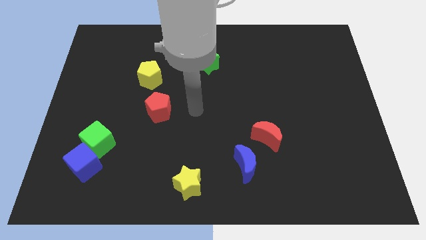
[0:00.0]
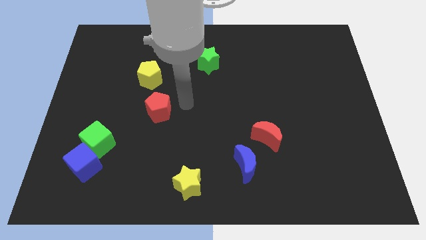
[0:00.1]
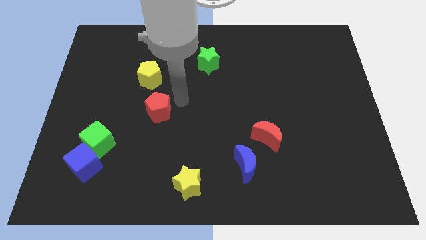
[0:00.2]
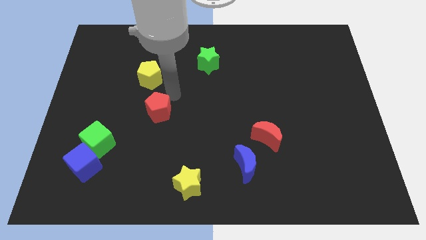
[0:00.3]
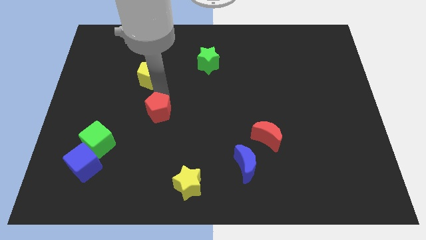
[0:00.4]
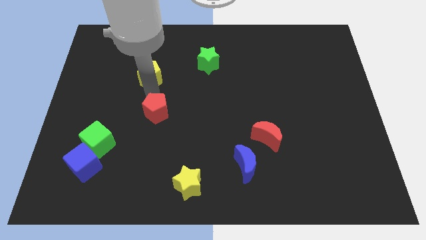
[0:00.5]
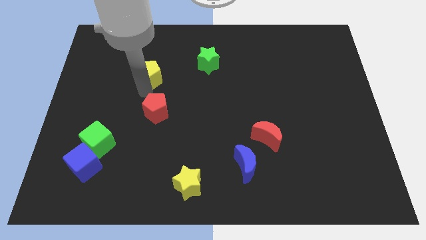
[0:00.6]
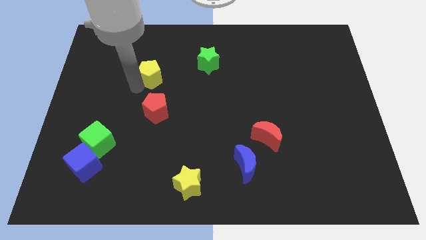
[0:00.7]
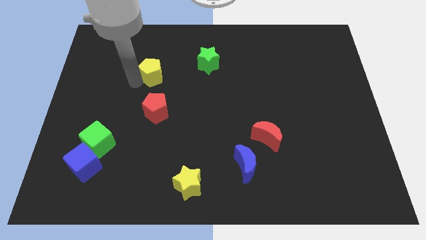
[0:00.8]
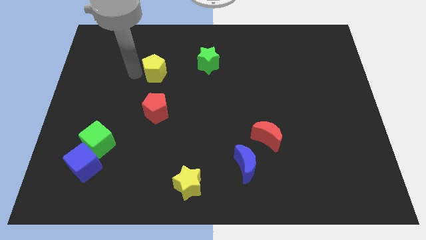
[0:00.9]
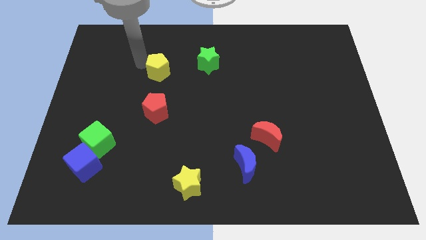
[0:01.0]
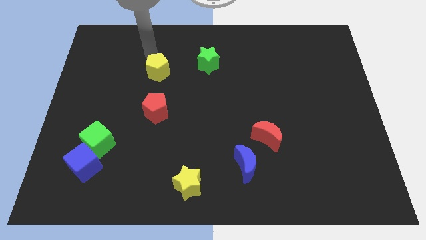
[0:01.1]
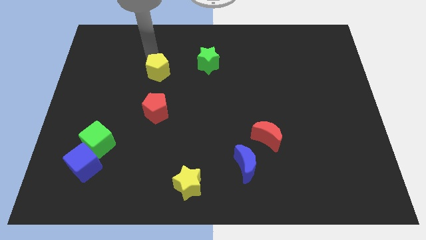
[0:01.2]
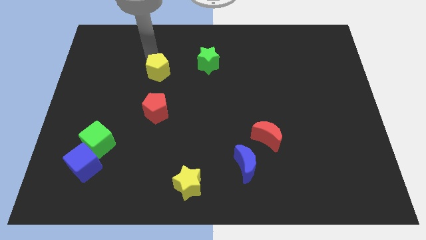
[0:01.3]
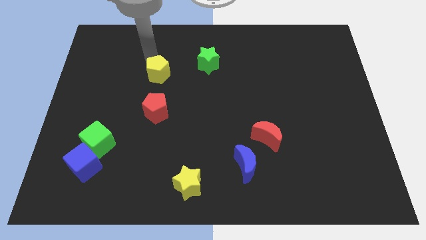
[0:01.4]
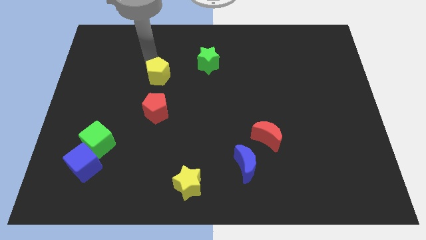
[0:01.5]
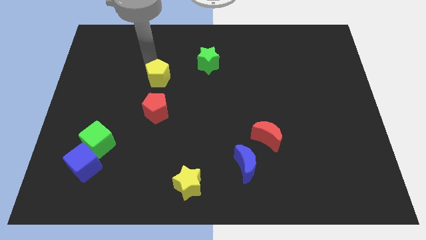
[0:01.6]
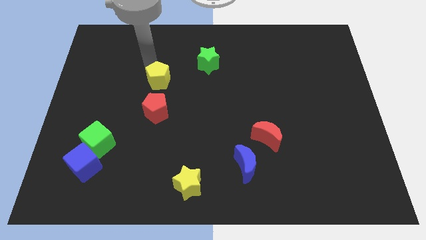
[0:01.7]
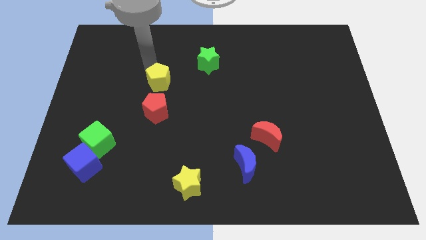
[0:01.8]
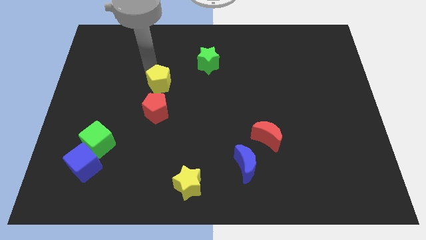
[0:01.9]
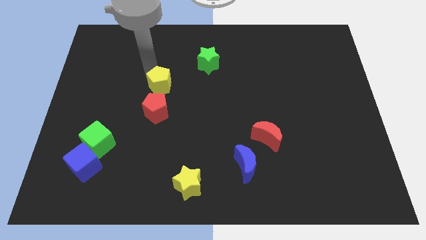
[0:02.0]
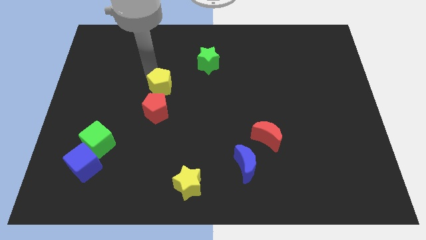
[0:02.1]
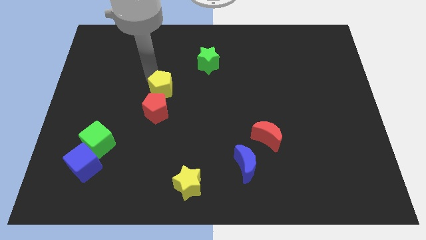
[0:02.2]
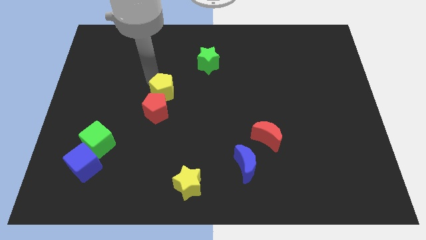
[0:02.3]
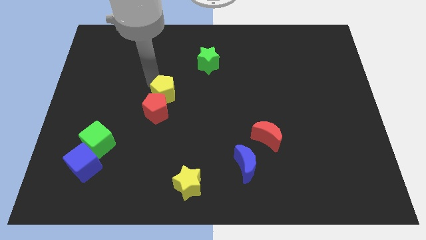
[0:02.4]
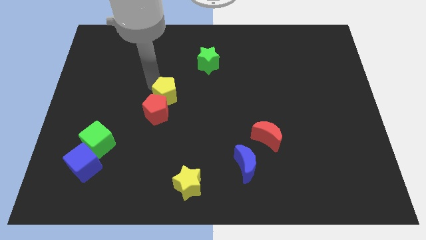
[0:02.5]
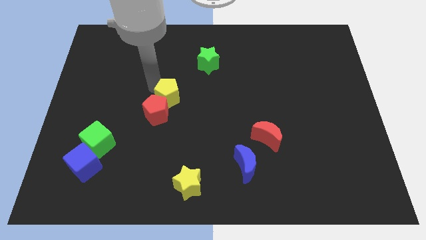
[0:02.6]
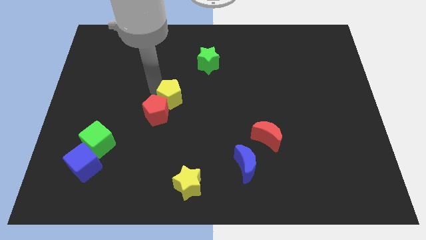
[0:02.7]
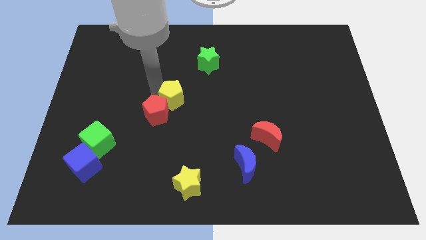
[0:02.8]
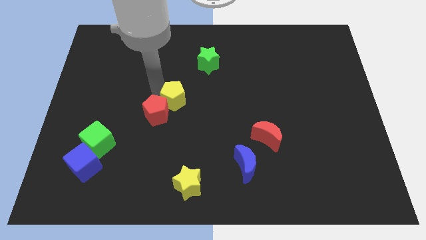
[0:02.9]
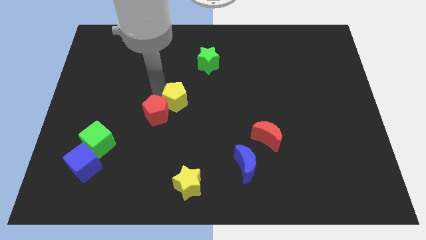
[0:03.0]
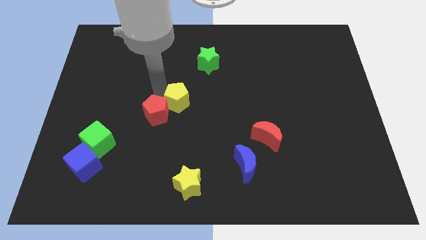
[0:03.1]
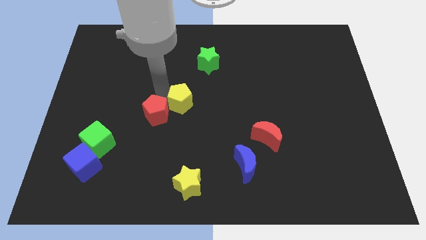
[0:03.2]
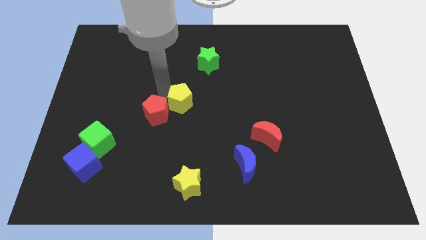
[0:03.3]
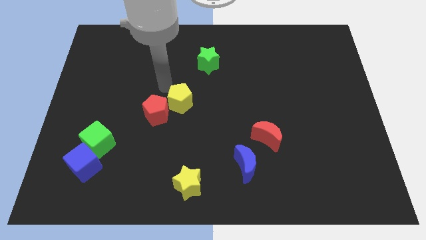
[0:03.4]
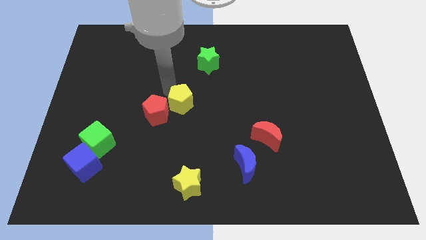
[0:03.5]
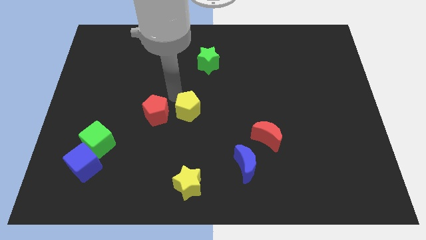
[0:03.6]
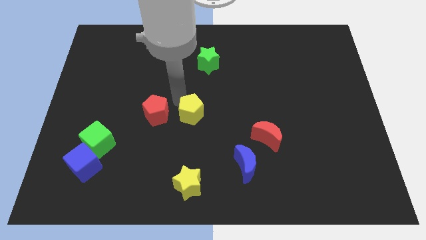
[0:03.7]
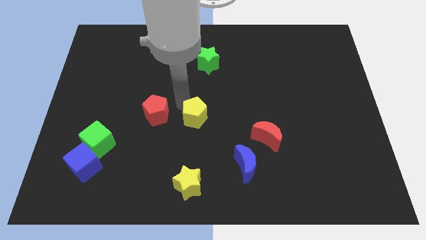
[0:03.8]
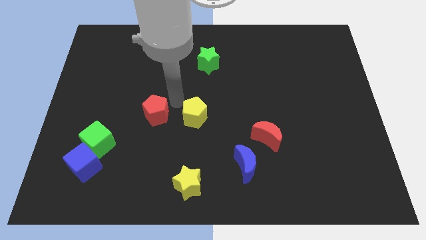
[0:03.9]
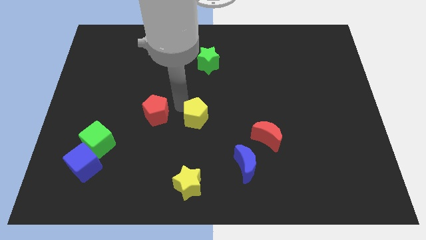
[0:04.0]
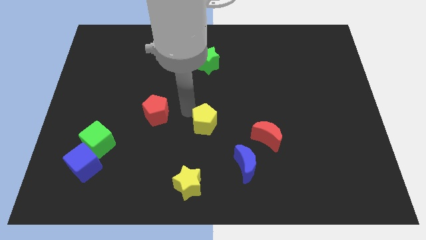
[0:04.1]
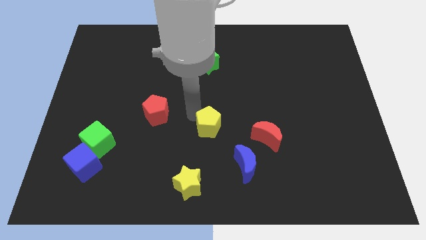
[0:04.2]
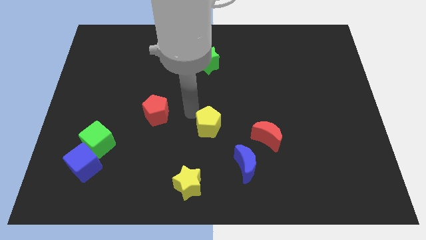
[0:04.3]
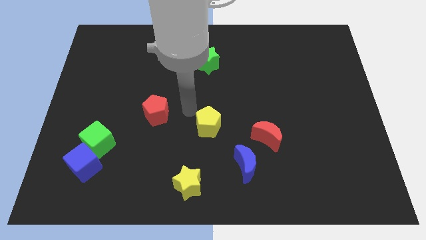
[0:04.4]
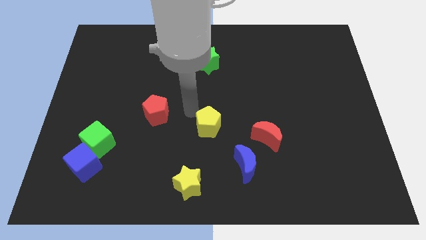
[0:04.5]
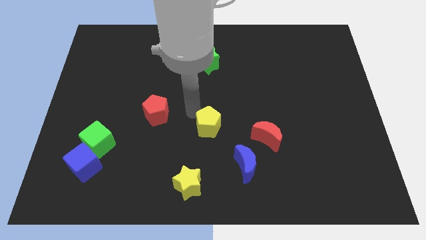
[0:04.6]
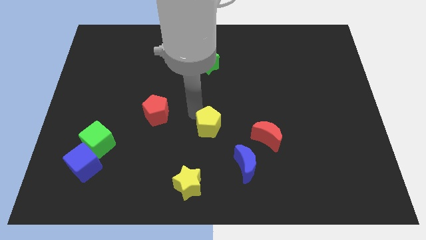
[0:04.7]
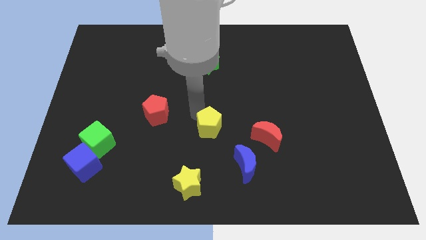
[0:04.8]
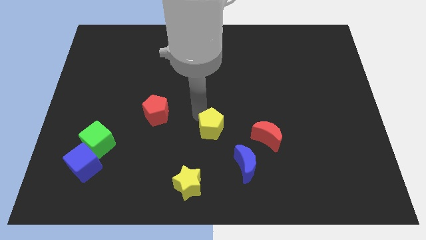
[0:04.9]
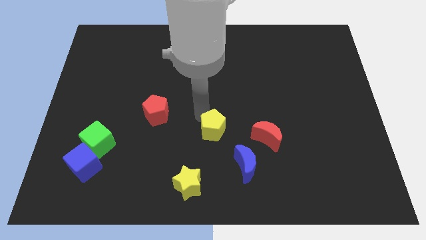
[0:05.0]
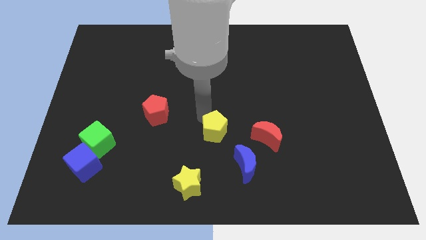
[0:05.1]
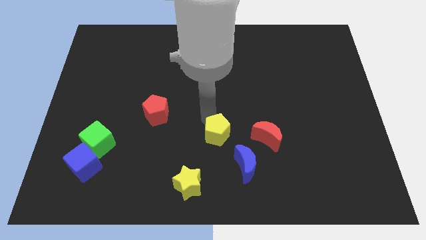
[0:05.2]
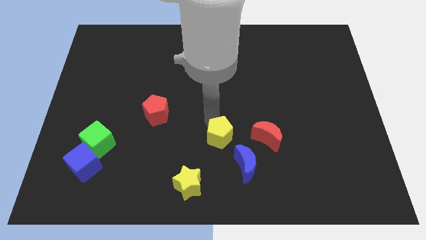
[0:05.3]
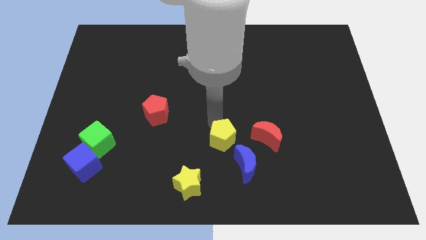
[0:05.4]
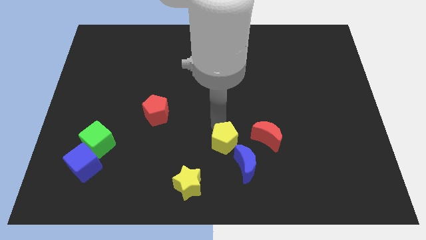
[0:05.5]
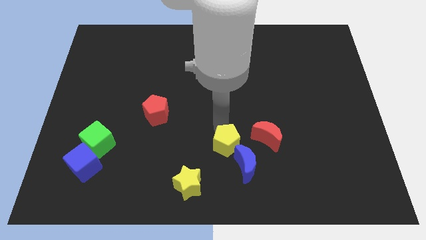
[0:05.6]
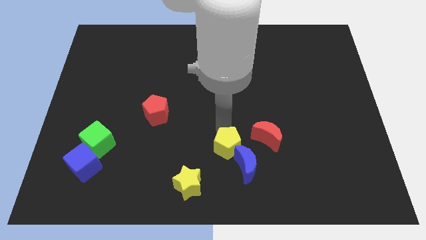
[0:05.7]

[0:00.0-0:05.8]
push the yellow pentagon towards the blue moon

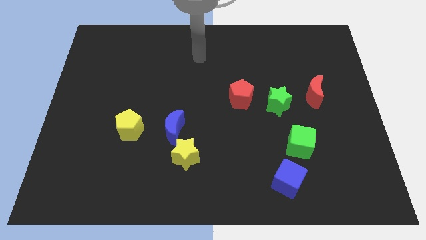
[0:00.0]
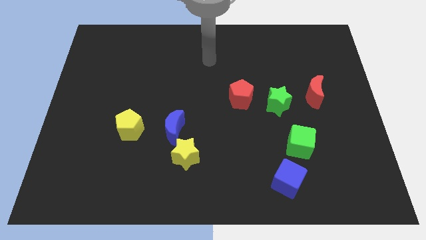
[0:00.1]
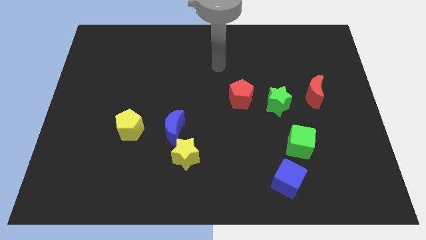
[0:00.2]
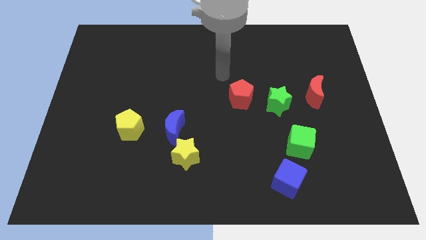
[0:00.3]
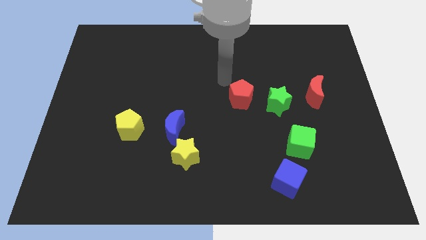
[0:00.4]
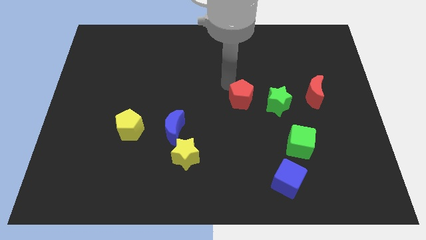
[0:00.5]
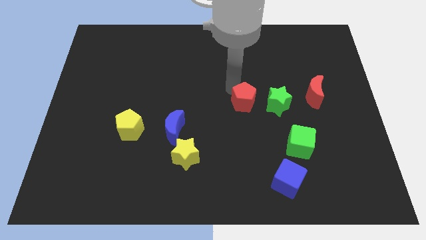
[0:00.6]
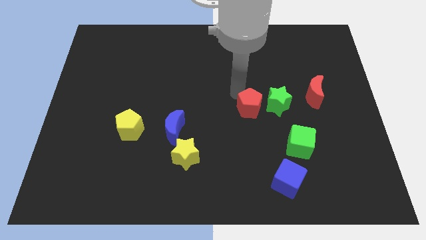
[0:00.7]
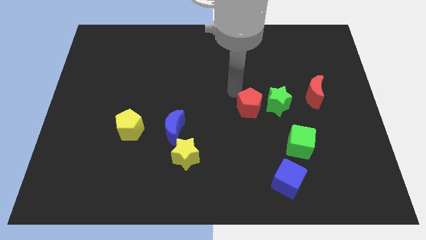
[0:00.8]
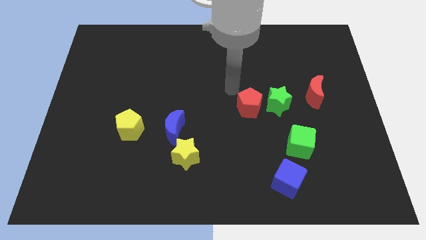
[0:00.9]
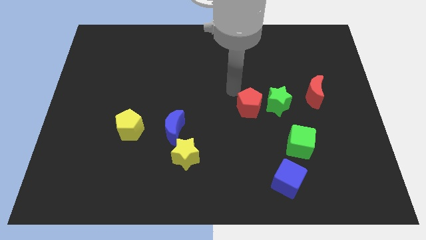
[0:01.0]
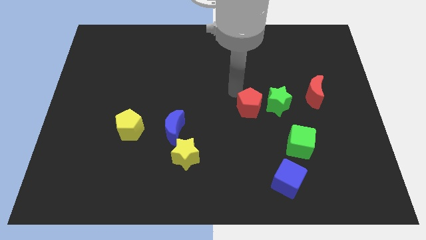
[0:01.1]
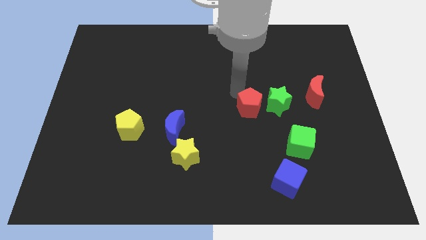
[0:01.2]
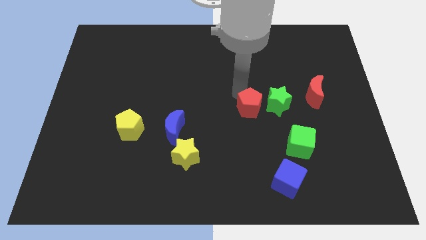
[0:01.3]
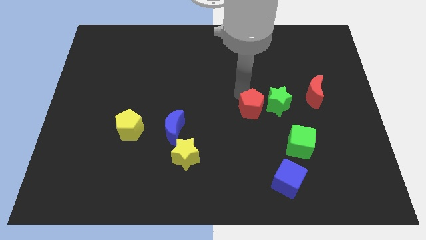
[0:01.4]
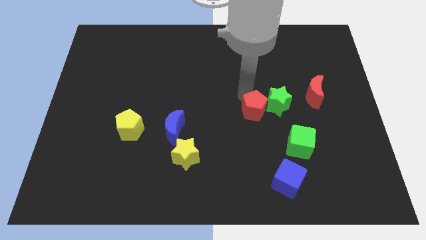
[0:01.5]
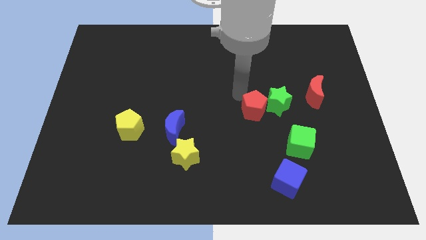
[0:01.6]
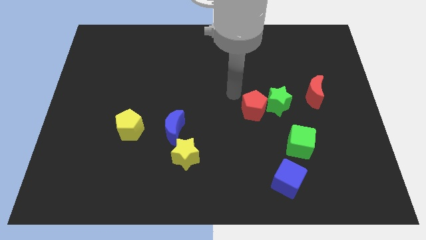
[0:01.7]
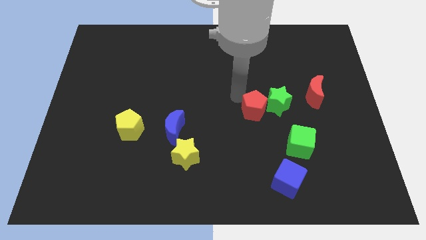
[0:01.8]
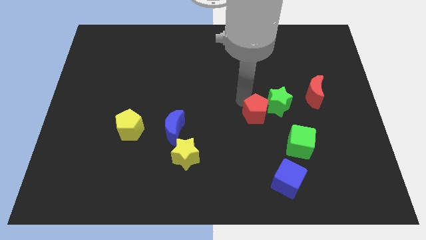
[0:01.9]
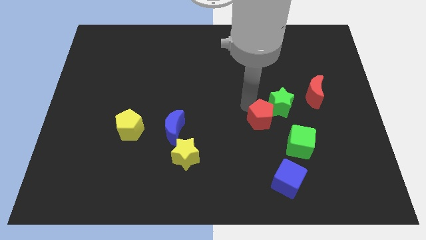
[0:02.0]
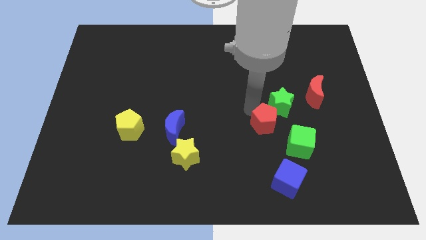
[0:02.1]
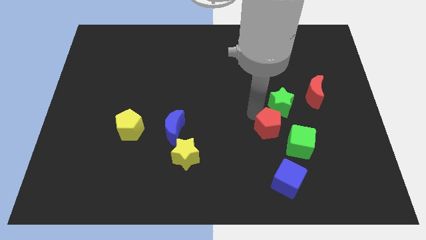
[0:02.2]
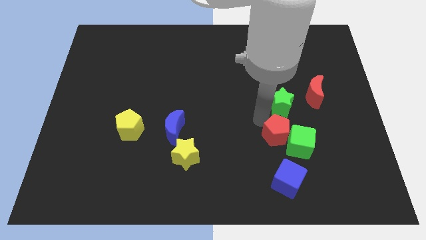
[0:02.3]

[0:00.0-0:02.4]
push the red pentagon close to the green cube
